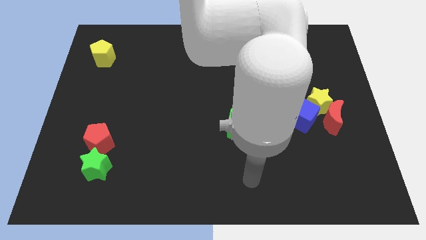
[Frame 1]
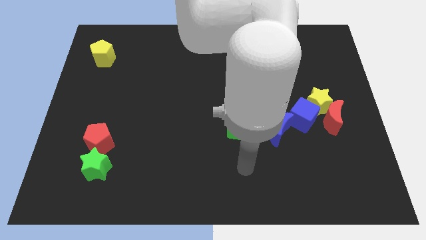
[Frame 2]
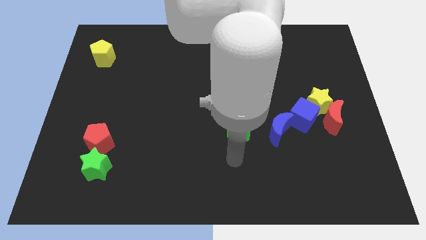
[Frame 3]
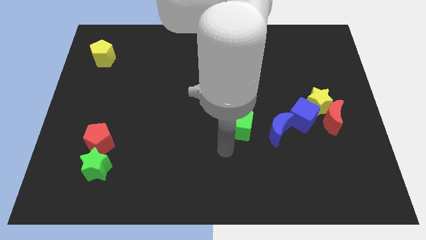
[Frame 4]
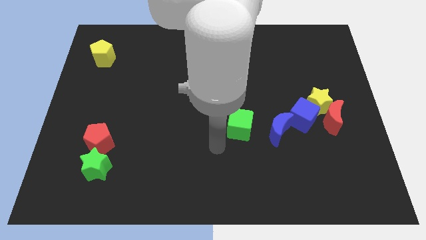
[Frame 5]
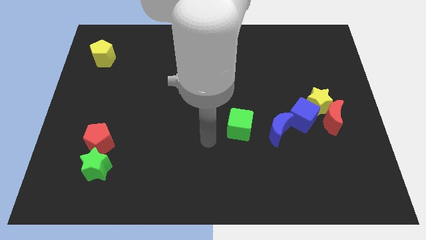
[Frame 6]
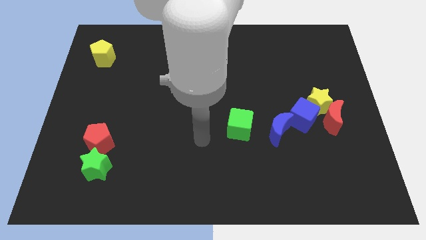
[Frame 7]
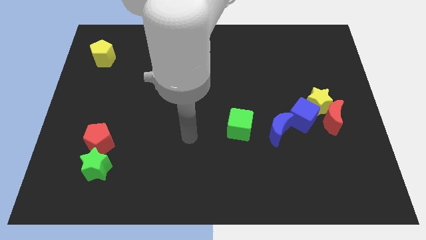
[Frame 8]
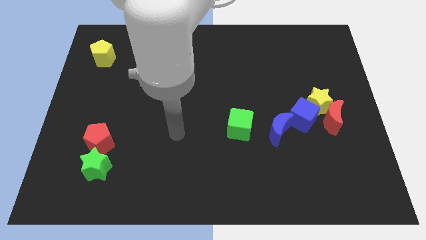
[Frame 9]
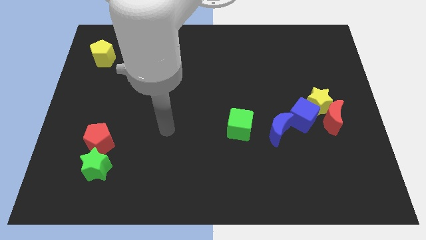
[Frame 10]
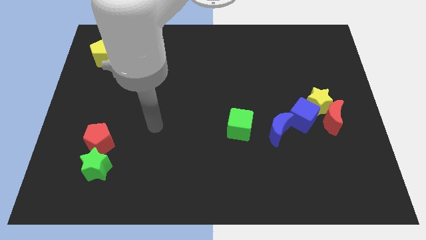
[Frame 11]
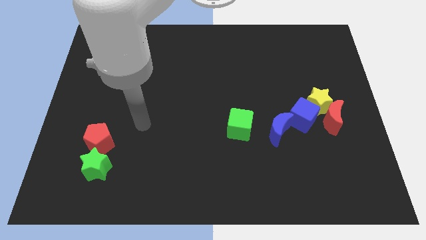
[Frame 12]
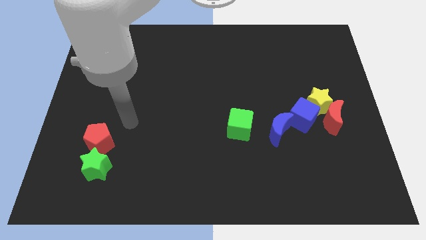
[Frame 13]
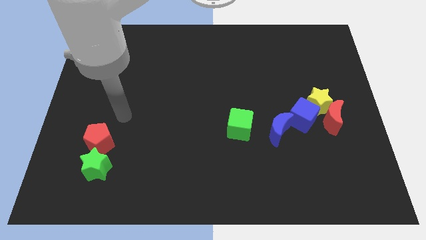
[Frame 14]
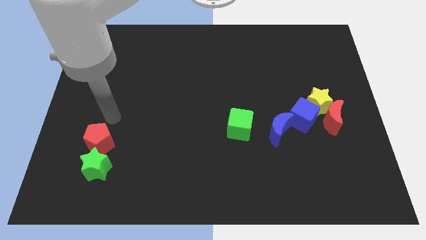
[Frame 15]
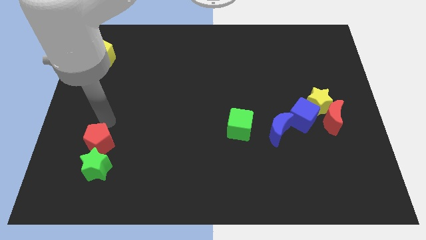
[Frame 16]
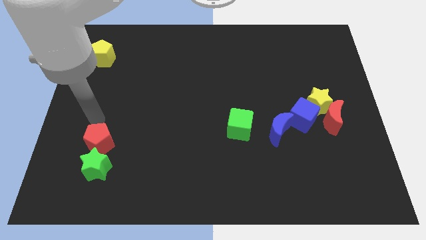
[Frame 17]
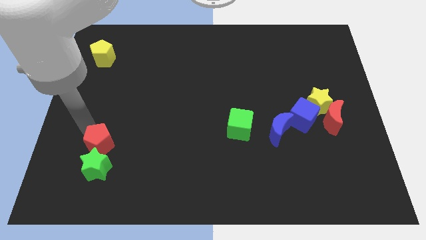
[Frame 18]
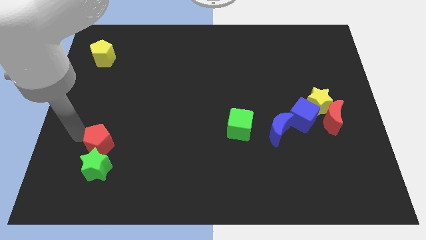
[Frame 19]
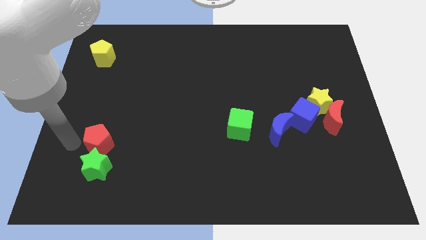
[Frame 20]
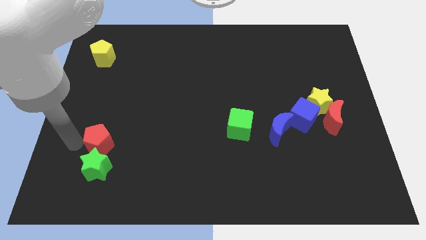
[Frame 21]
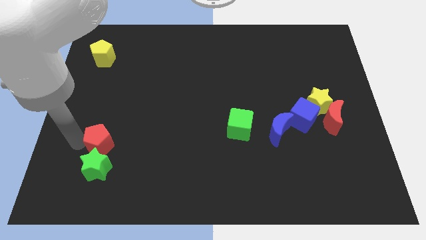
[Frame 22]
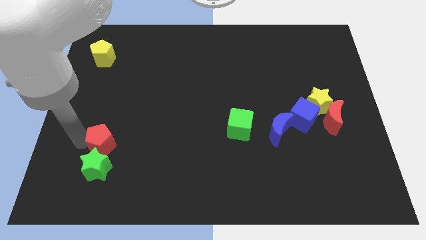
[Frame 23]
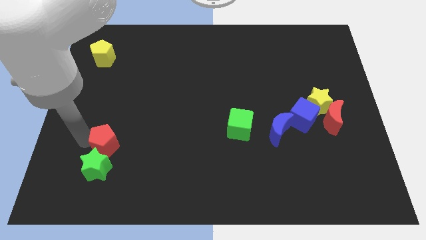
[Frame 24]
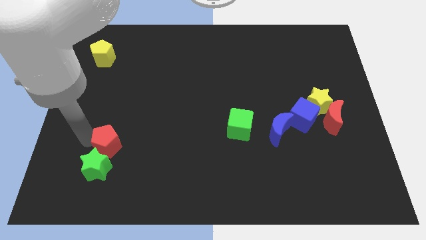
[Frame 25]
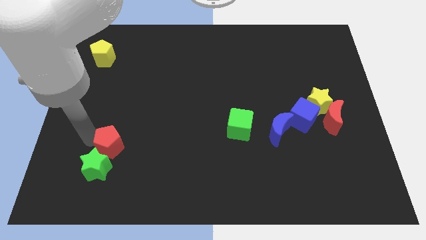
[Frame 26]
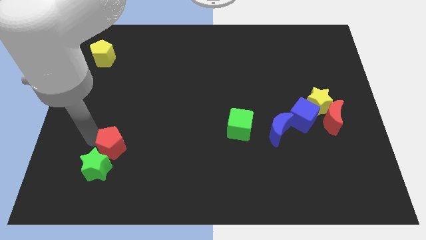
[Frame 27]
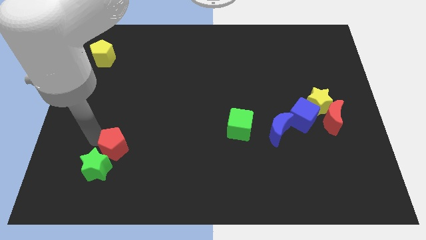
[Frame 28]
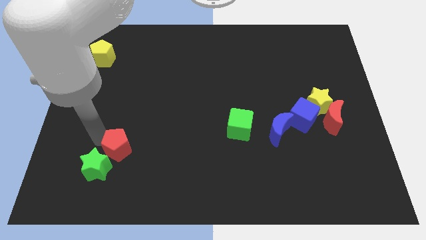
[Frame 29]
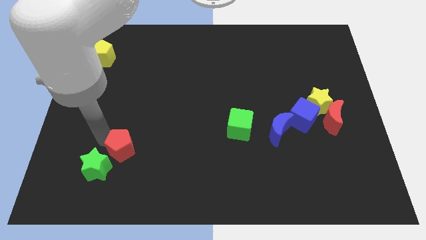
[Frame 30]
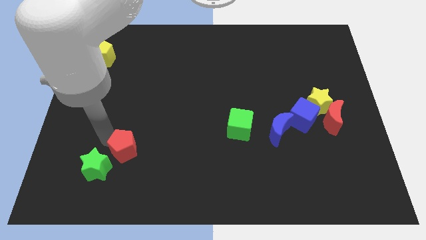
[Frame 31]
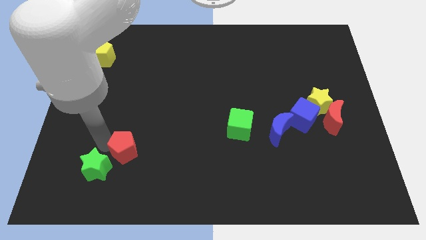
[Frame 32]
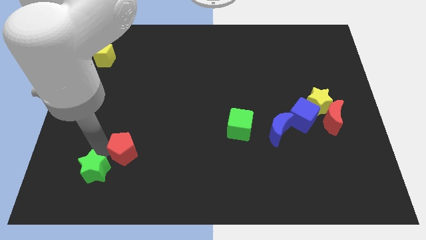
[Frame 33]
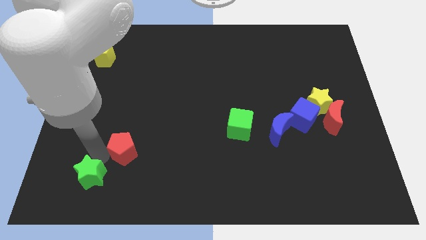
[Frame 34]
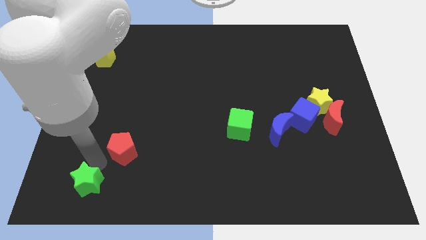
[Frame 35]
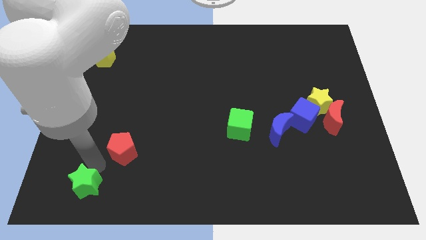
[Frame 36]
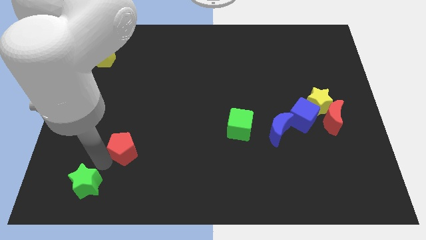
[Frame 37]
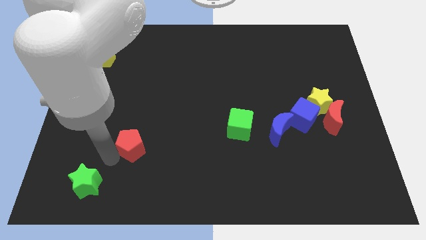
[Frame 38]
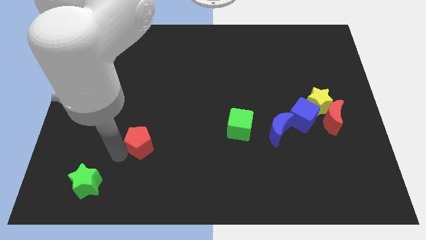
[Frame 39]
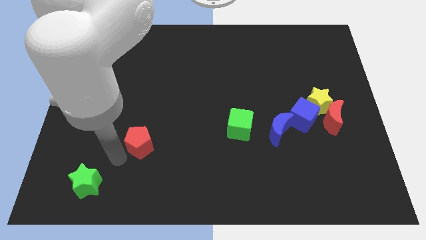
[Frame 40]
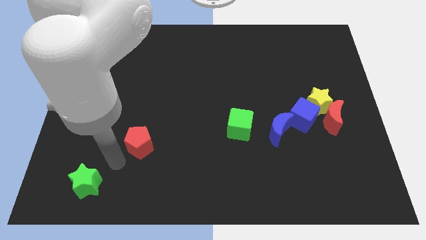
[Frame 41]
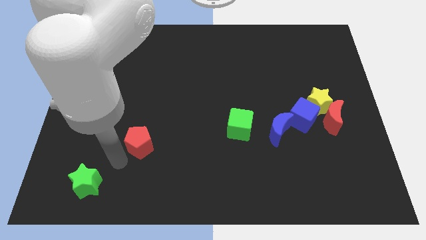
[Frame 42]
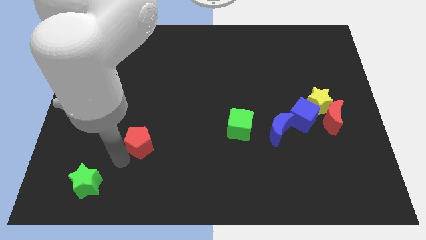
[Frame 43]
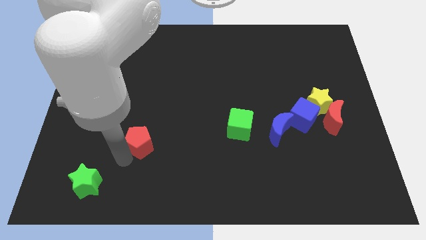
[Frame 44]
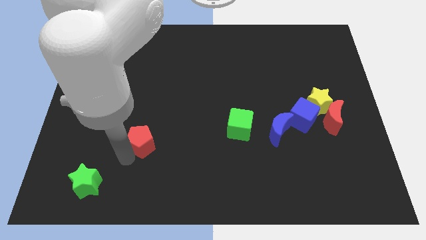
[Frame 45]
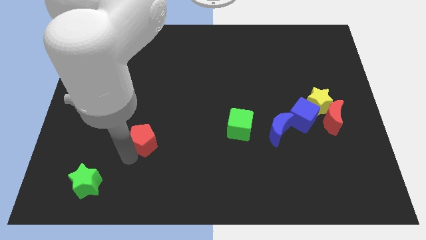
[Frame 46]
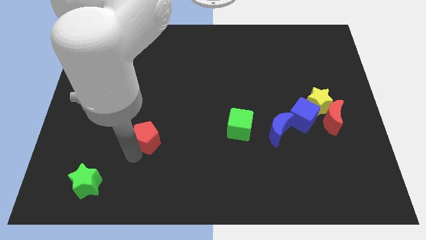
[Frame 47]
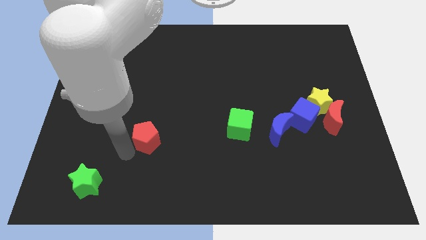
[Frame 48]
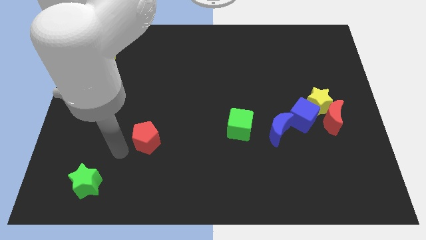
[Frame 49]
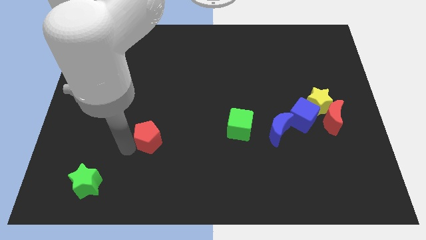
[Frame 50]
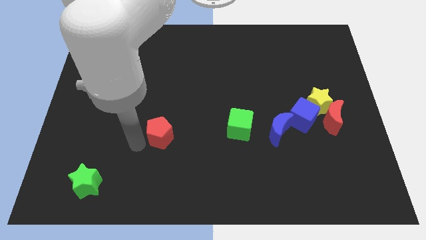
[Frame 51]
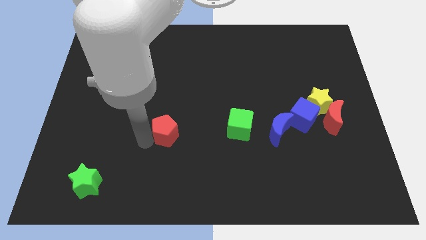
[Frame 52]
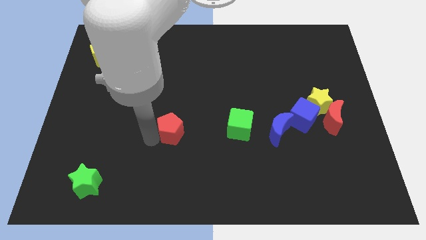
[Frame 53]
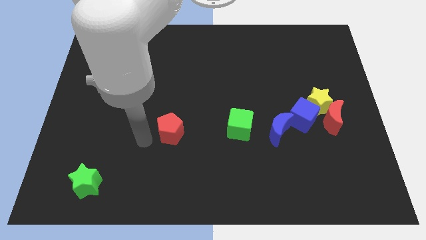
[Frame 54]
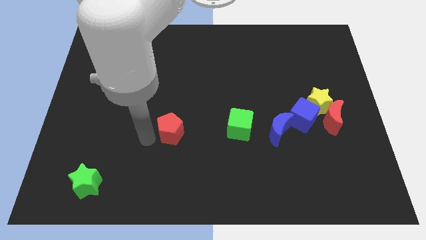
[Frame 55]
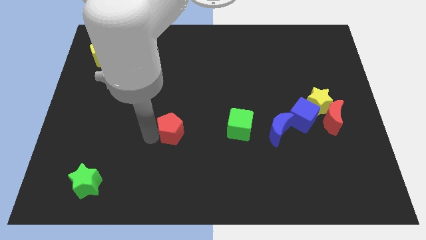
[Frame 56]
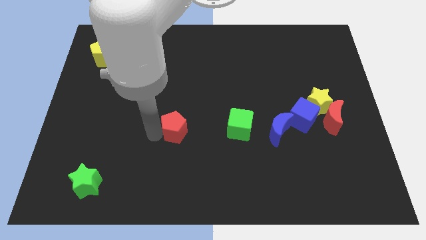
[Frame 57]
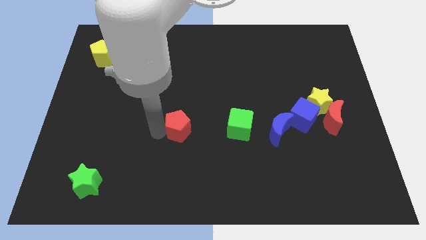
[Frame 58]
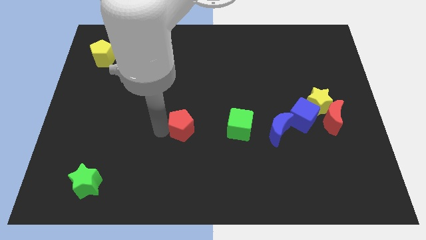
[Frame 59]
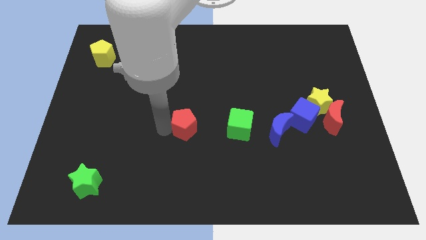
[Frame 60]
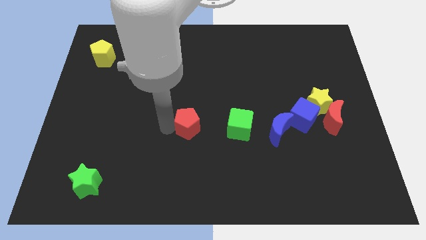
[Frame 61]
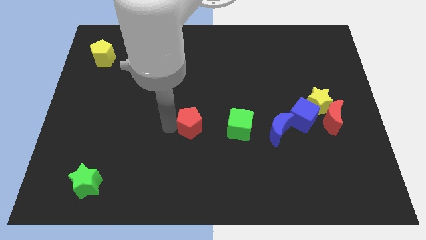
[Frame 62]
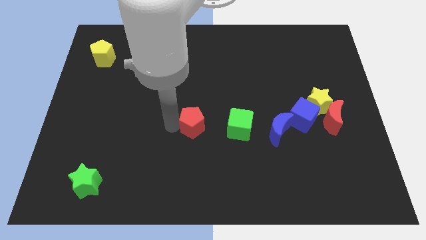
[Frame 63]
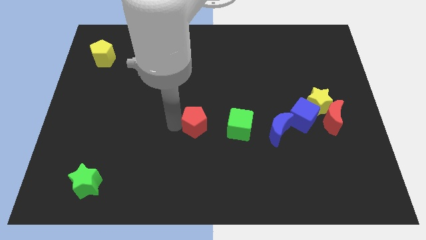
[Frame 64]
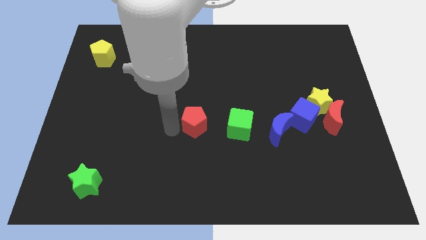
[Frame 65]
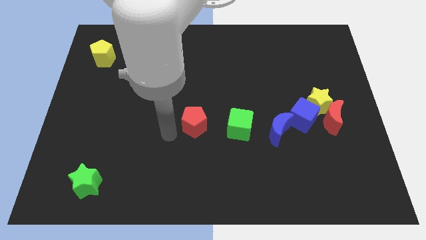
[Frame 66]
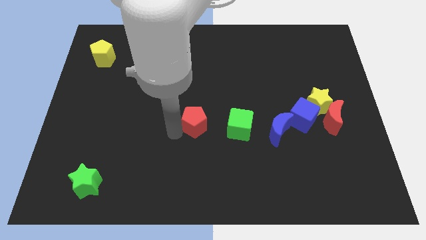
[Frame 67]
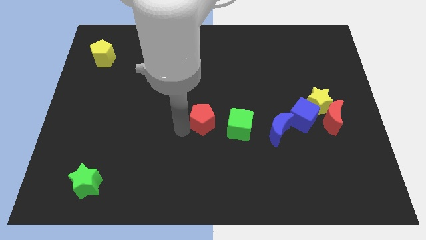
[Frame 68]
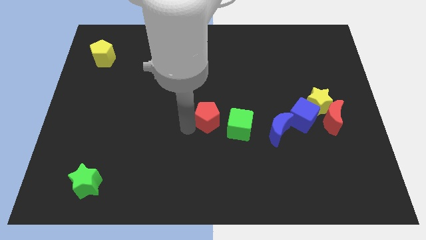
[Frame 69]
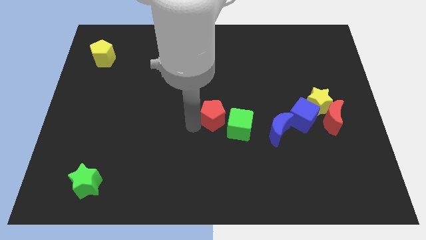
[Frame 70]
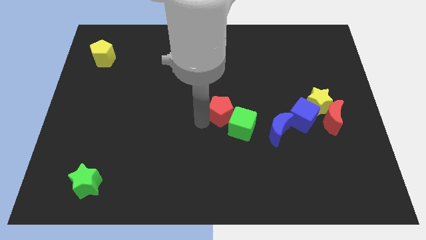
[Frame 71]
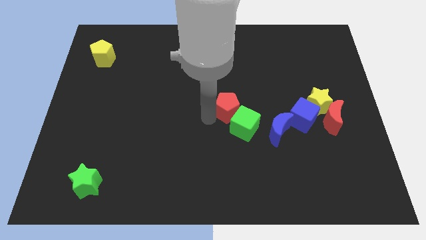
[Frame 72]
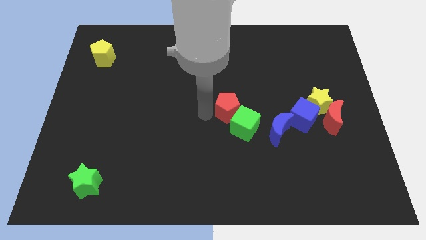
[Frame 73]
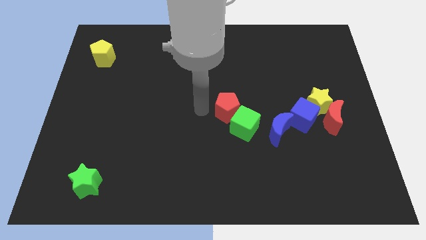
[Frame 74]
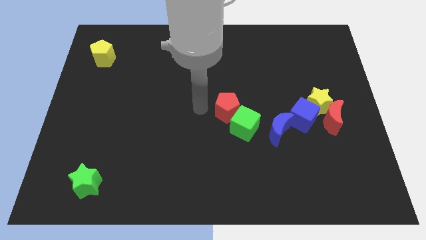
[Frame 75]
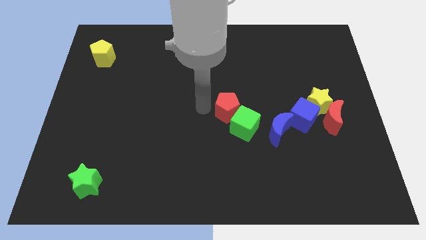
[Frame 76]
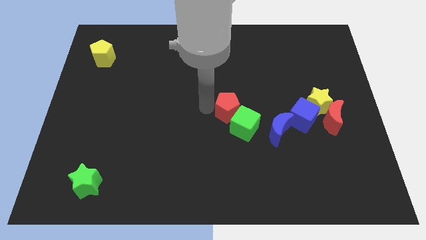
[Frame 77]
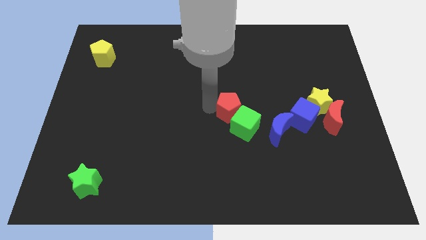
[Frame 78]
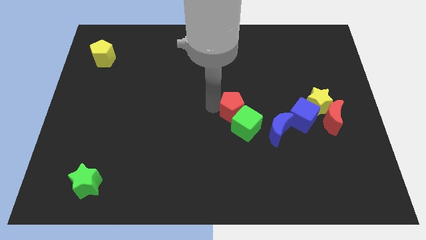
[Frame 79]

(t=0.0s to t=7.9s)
move the red pentagon diagonally up and to the left of the blue moon
